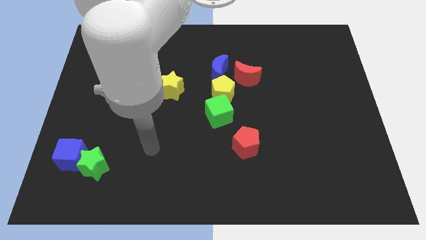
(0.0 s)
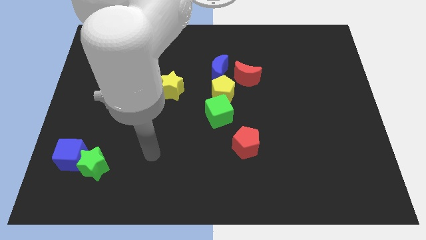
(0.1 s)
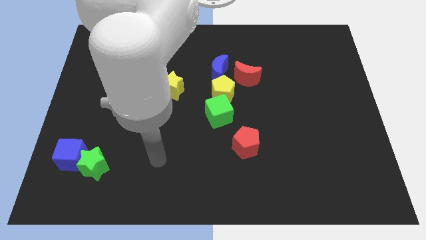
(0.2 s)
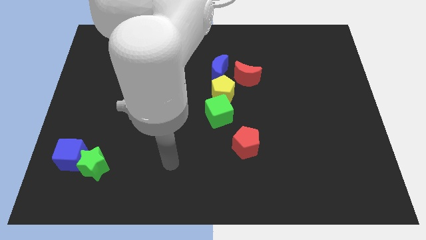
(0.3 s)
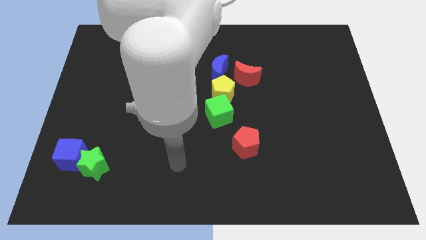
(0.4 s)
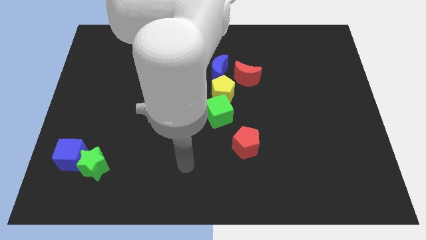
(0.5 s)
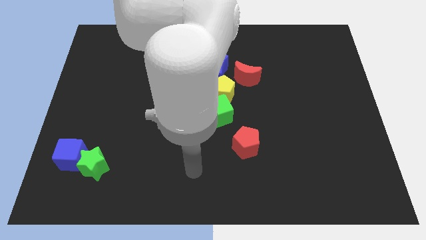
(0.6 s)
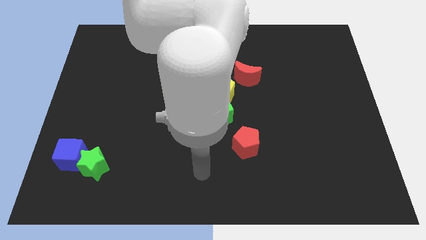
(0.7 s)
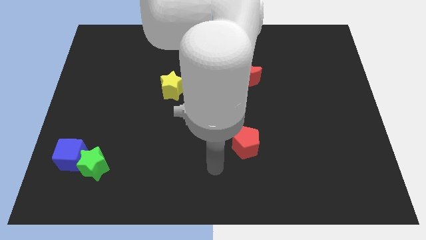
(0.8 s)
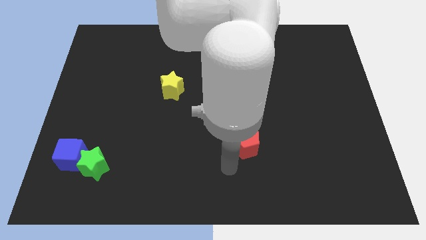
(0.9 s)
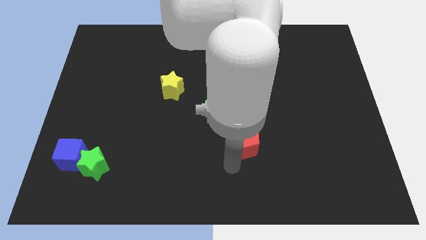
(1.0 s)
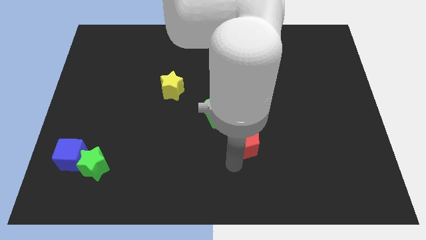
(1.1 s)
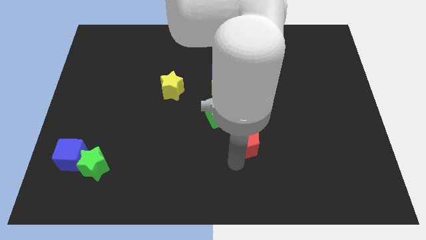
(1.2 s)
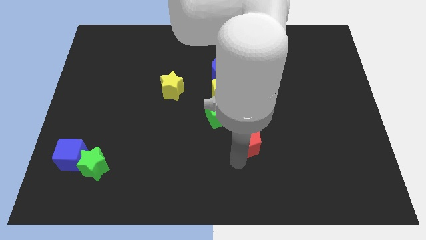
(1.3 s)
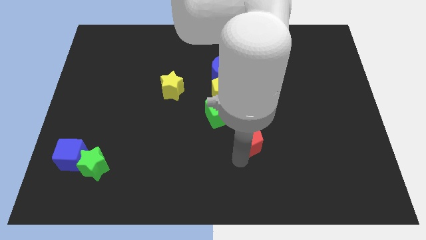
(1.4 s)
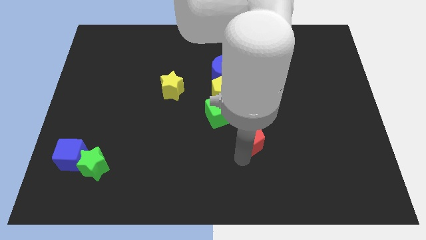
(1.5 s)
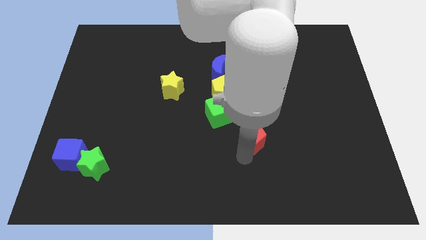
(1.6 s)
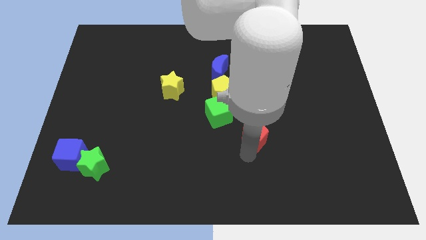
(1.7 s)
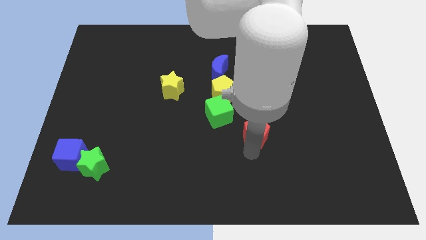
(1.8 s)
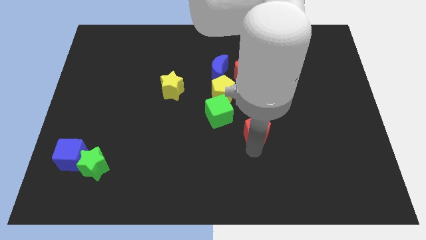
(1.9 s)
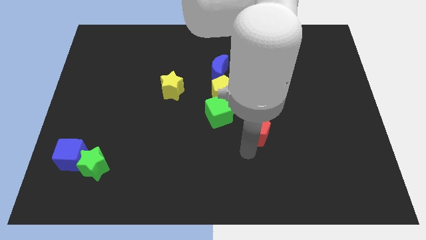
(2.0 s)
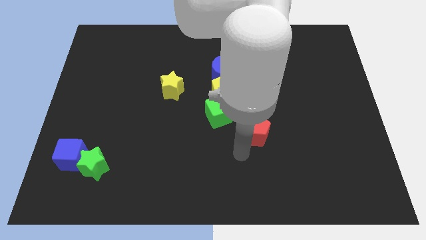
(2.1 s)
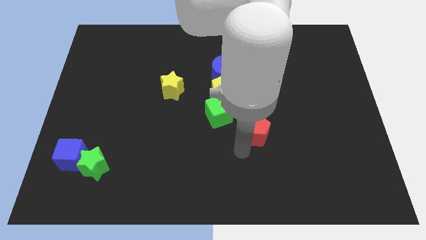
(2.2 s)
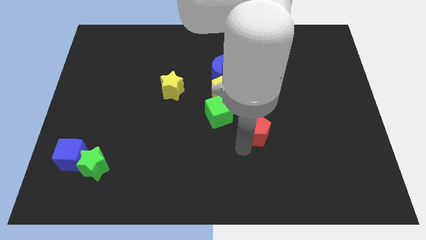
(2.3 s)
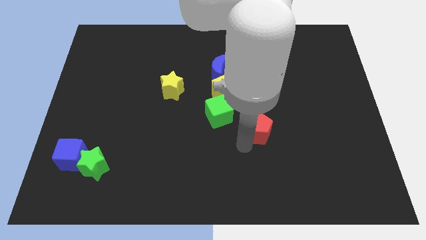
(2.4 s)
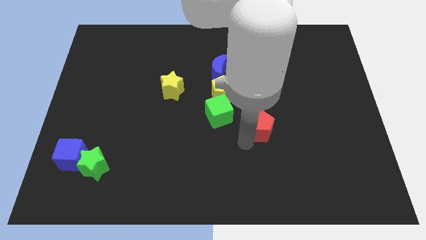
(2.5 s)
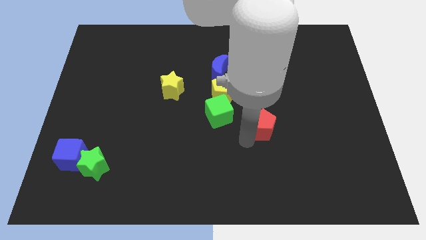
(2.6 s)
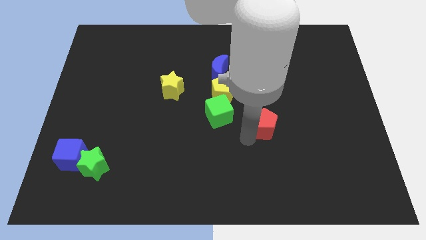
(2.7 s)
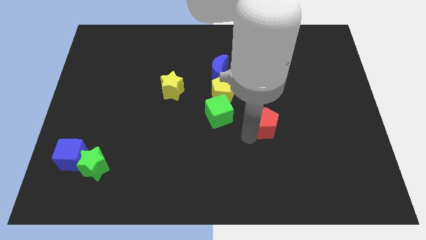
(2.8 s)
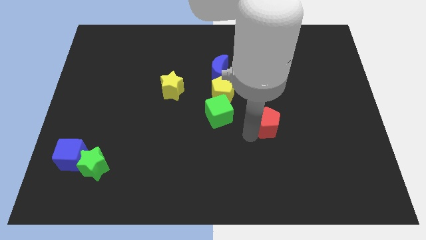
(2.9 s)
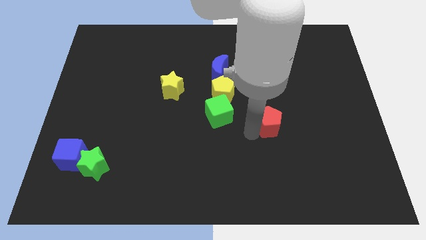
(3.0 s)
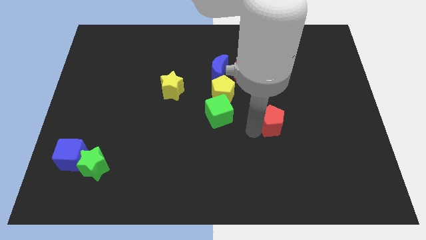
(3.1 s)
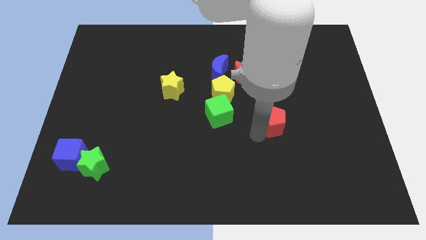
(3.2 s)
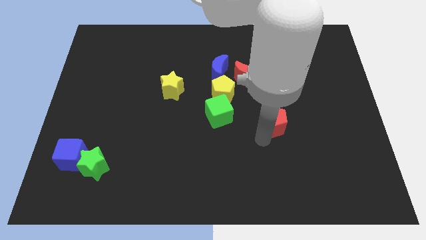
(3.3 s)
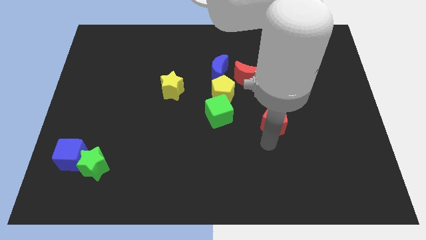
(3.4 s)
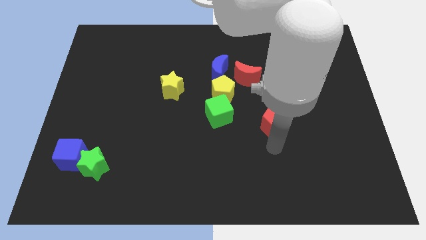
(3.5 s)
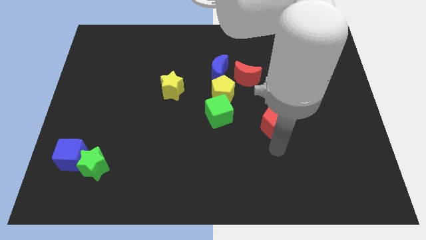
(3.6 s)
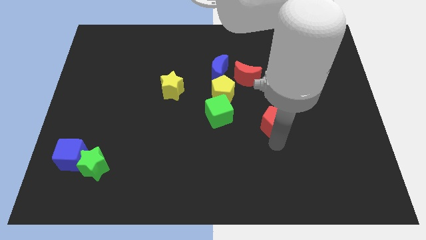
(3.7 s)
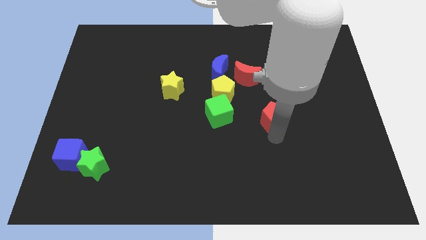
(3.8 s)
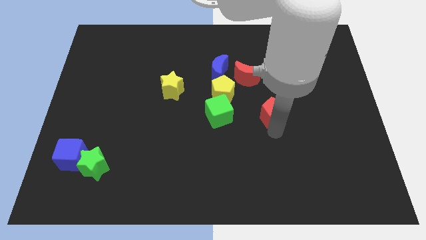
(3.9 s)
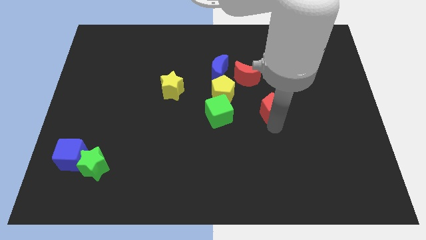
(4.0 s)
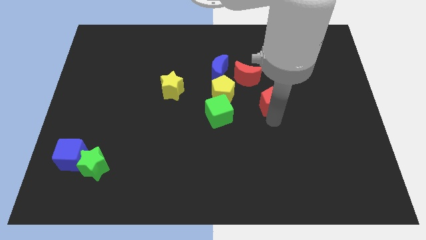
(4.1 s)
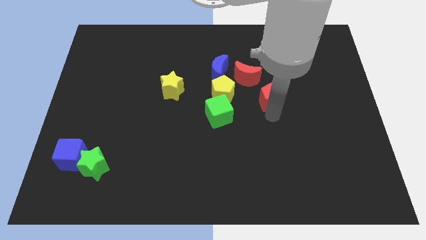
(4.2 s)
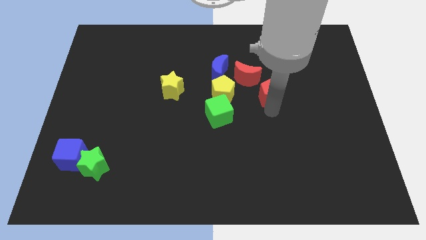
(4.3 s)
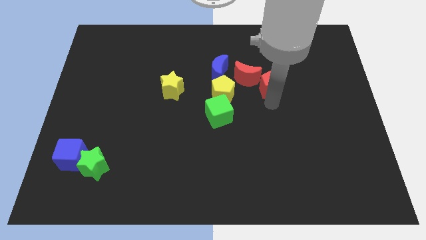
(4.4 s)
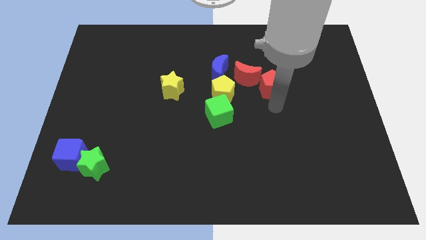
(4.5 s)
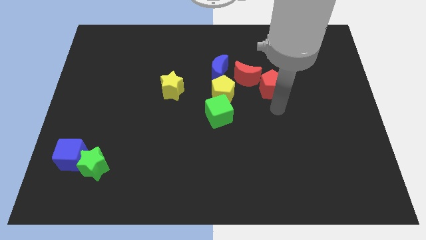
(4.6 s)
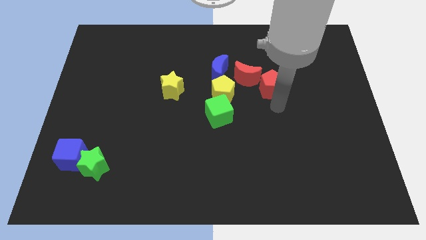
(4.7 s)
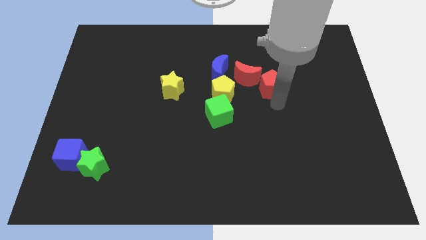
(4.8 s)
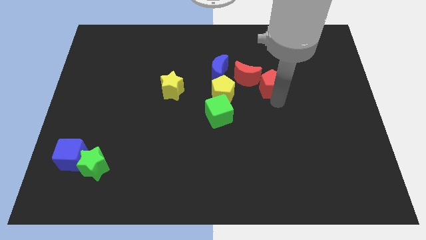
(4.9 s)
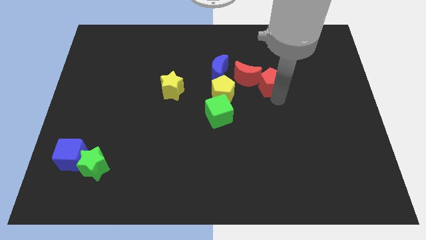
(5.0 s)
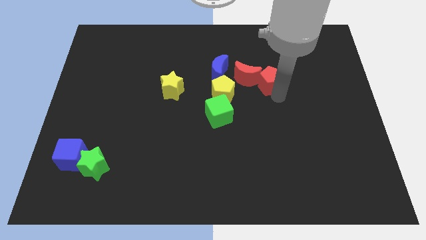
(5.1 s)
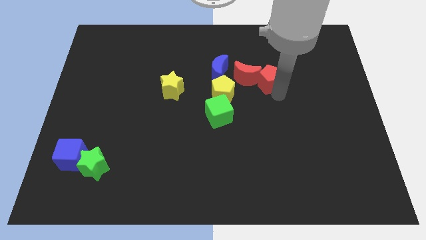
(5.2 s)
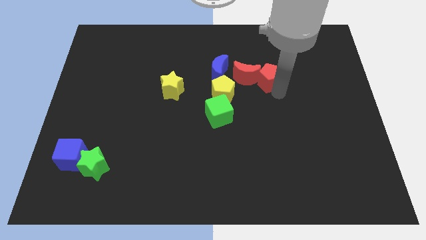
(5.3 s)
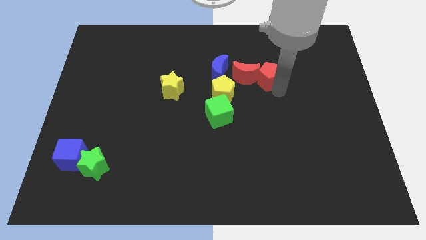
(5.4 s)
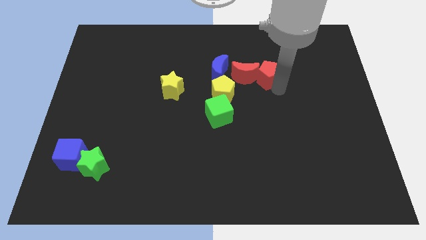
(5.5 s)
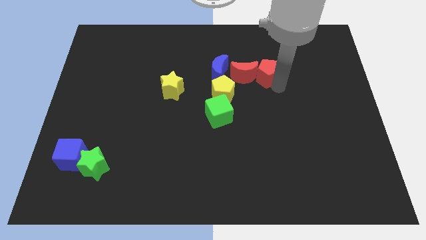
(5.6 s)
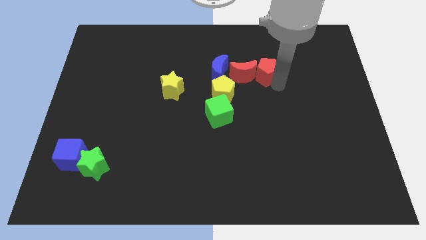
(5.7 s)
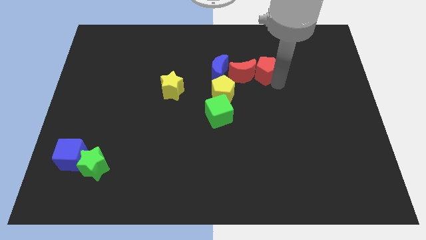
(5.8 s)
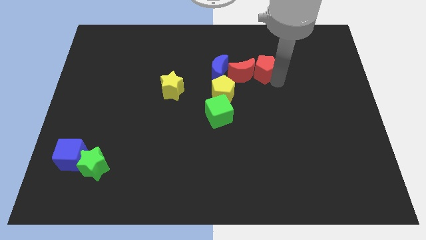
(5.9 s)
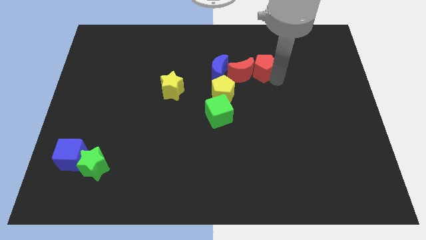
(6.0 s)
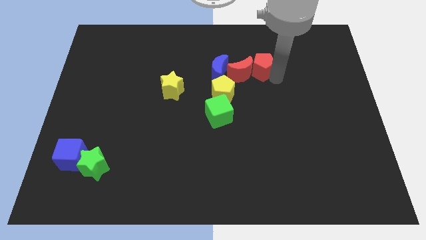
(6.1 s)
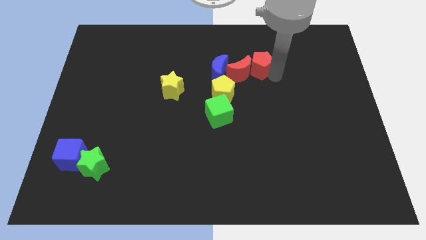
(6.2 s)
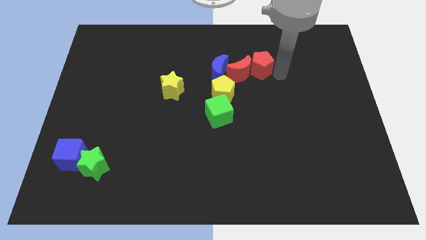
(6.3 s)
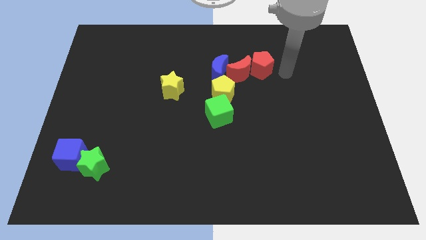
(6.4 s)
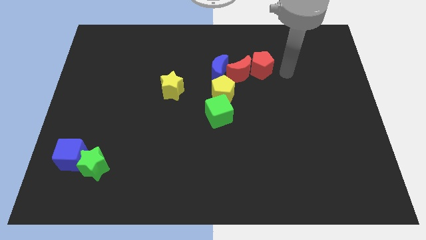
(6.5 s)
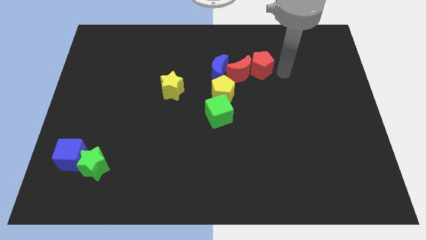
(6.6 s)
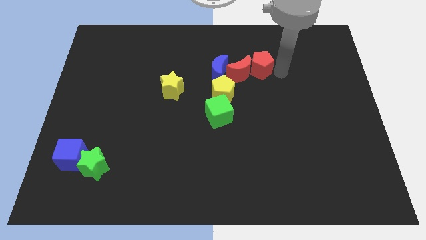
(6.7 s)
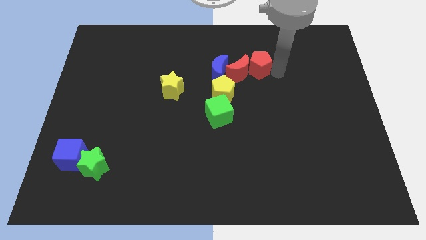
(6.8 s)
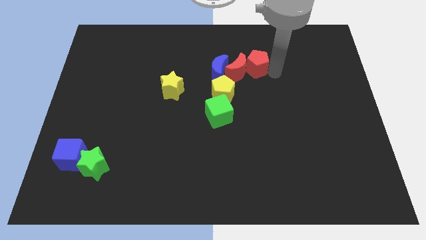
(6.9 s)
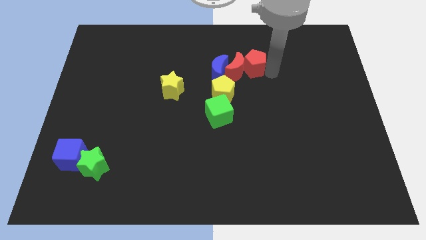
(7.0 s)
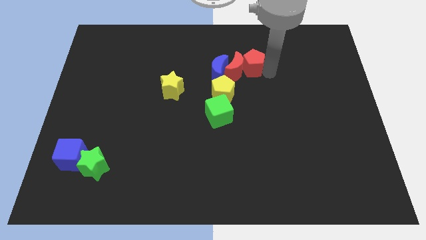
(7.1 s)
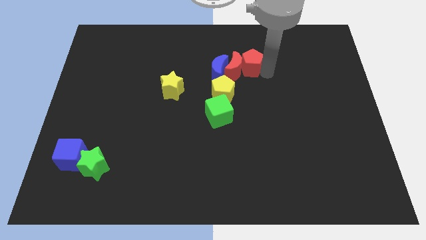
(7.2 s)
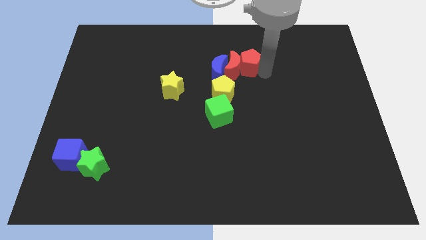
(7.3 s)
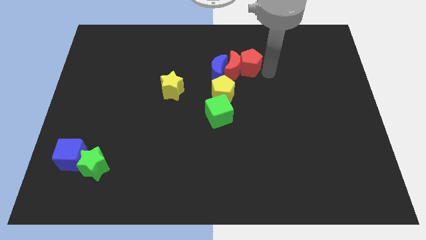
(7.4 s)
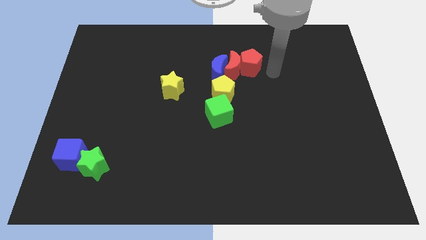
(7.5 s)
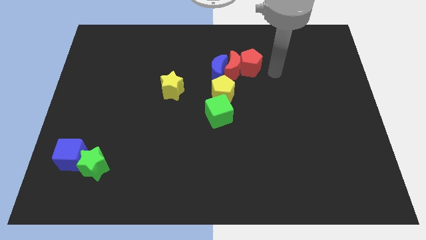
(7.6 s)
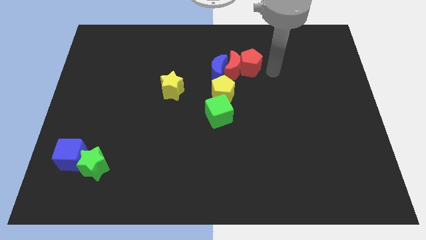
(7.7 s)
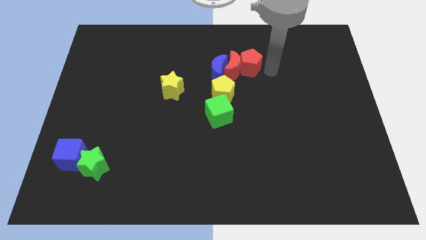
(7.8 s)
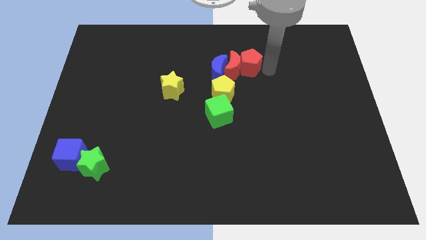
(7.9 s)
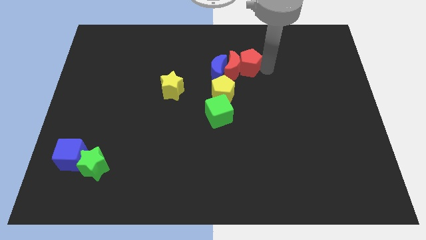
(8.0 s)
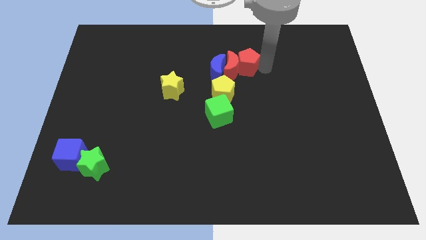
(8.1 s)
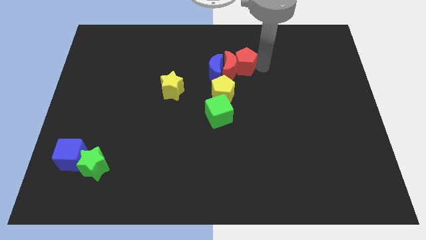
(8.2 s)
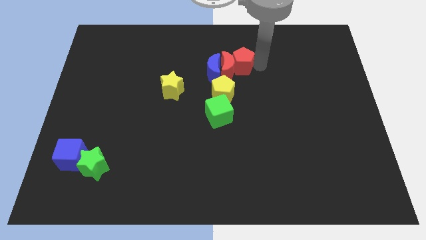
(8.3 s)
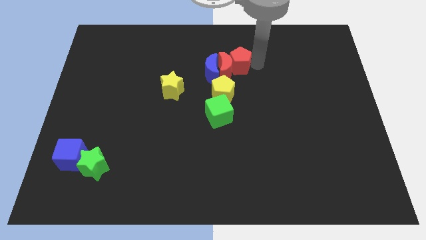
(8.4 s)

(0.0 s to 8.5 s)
slide the red pentagon above the yellow pentagon

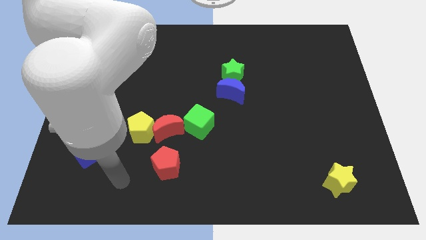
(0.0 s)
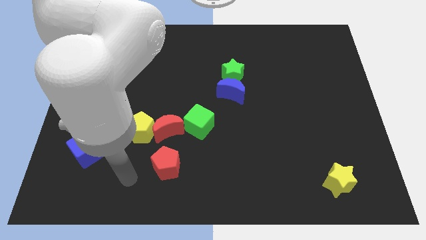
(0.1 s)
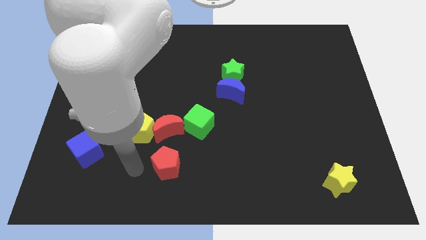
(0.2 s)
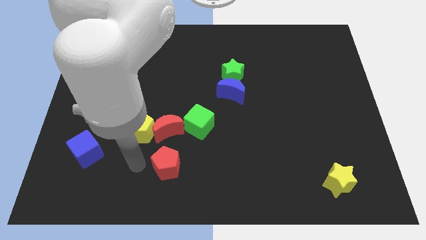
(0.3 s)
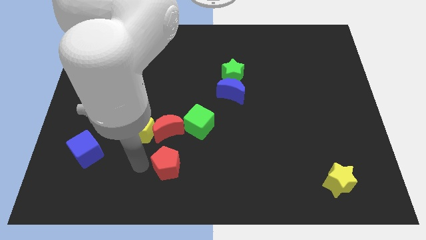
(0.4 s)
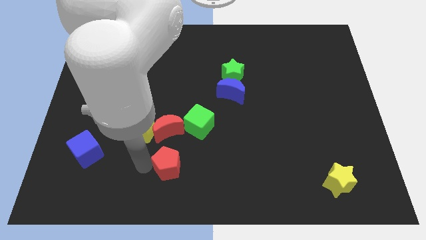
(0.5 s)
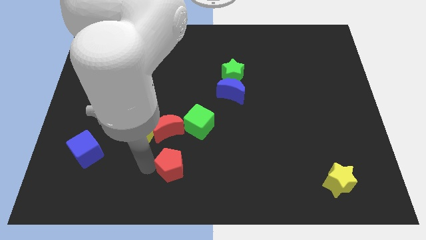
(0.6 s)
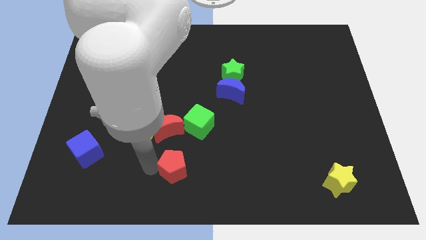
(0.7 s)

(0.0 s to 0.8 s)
slide the red pentagon below the green cube
